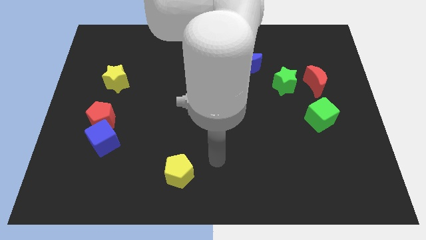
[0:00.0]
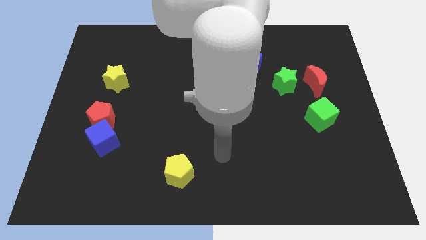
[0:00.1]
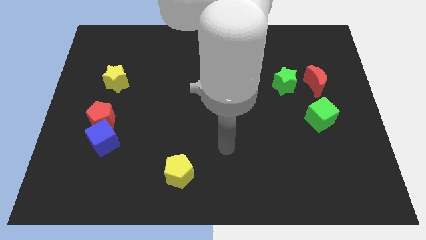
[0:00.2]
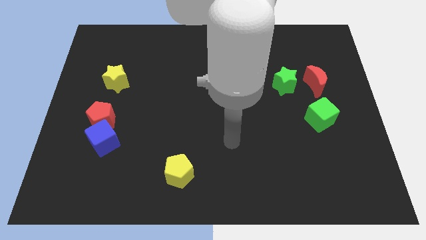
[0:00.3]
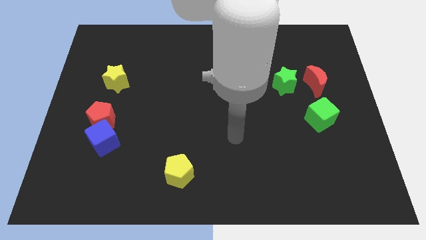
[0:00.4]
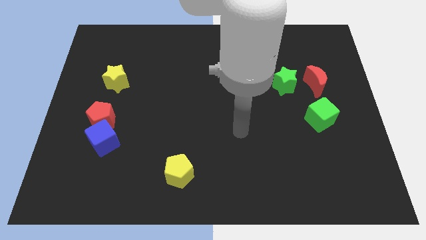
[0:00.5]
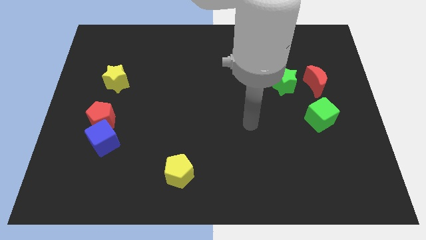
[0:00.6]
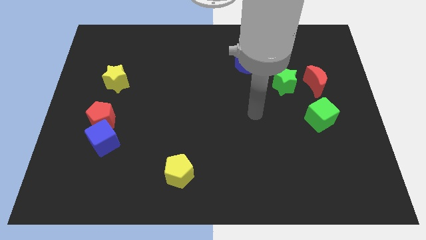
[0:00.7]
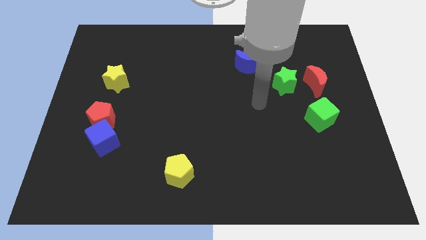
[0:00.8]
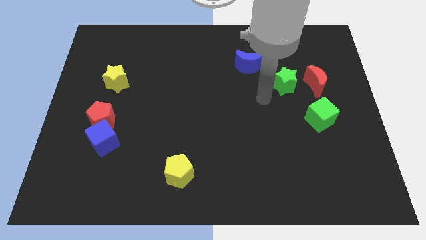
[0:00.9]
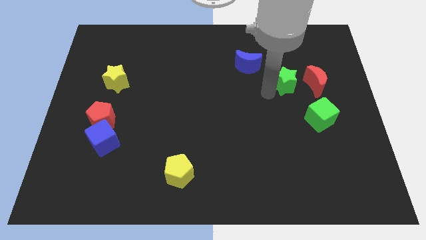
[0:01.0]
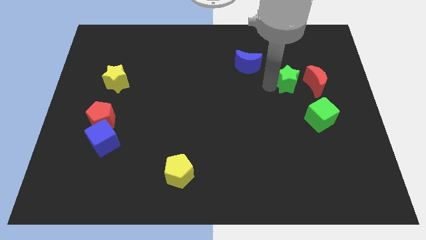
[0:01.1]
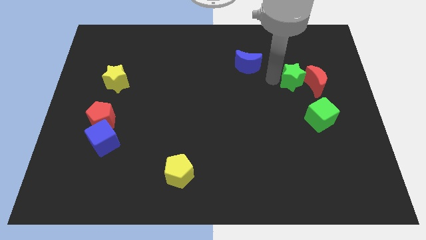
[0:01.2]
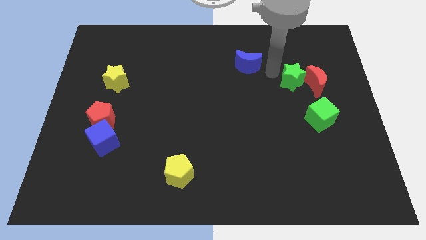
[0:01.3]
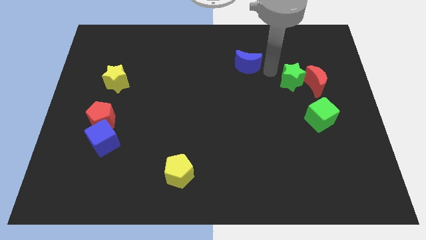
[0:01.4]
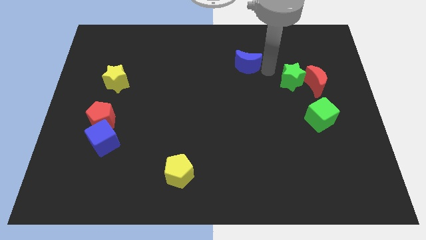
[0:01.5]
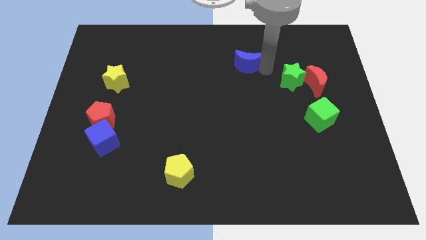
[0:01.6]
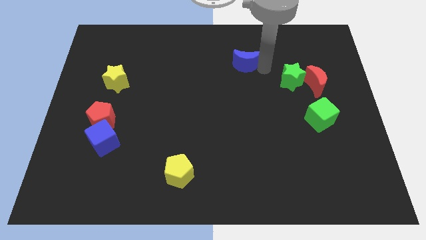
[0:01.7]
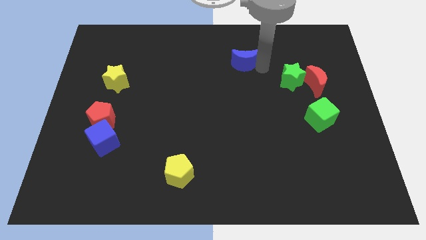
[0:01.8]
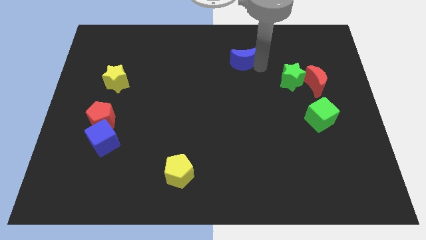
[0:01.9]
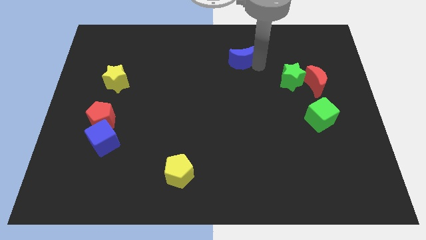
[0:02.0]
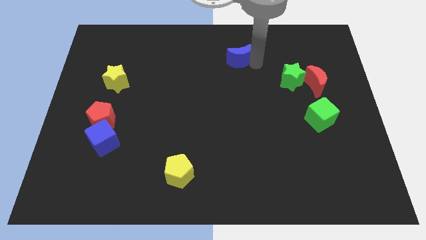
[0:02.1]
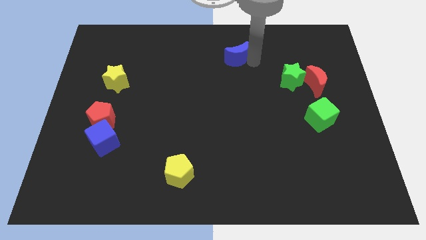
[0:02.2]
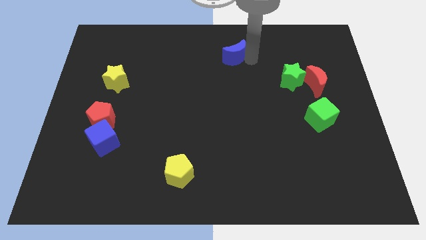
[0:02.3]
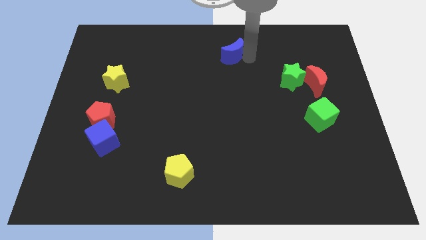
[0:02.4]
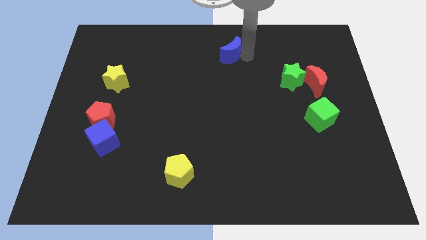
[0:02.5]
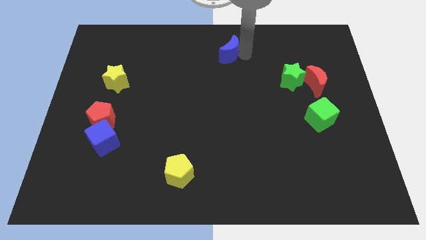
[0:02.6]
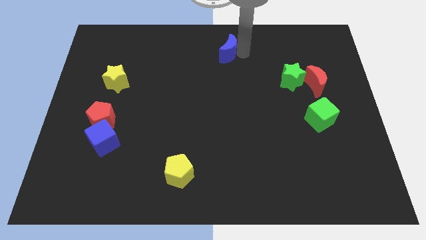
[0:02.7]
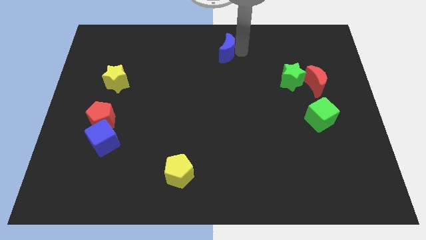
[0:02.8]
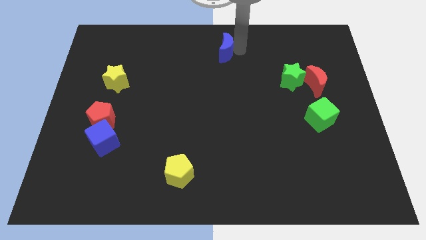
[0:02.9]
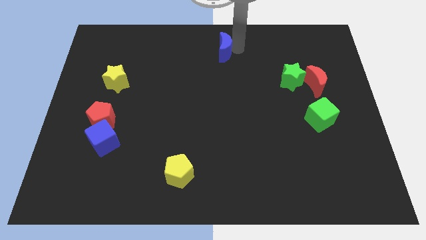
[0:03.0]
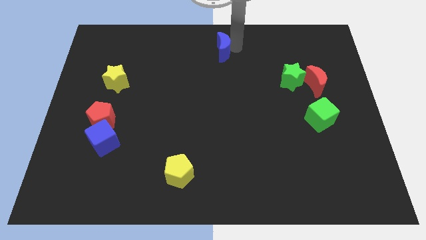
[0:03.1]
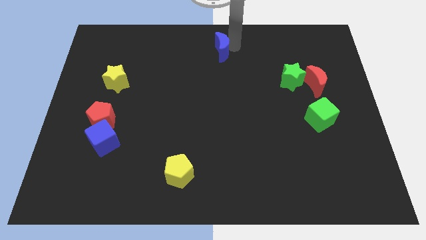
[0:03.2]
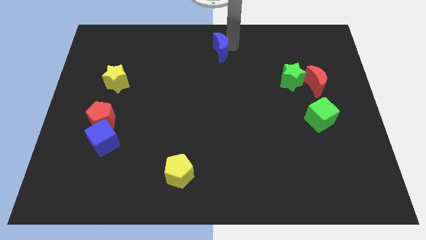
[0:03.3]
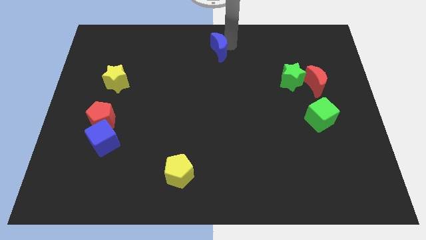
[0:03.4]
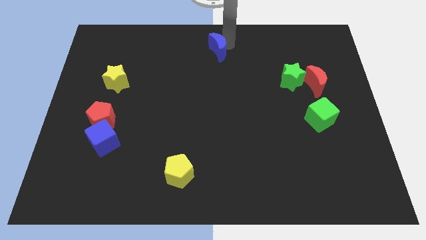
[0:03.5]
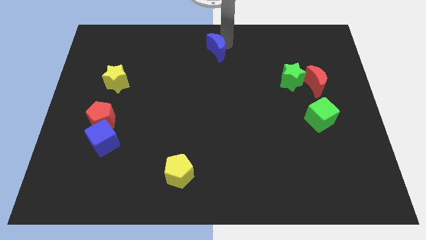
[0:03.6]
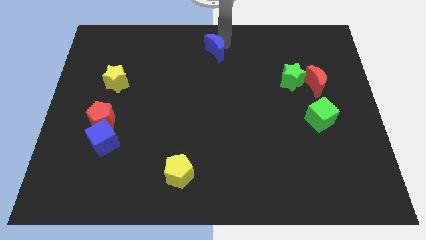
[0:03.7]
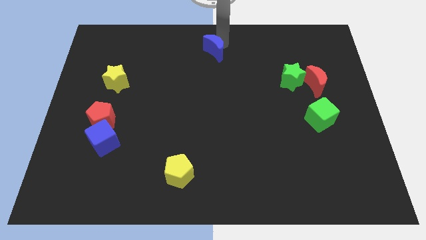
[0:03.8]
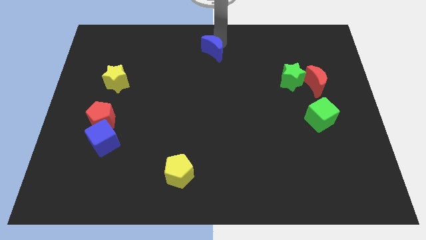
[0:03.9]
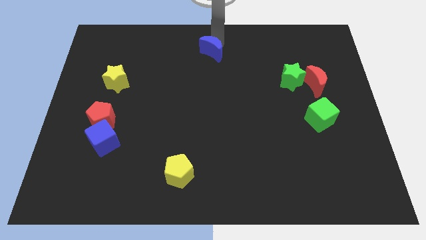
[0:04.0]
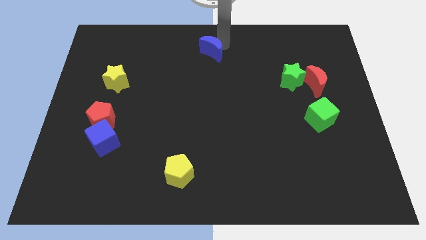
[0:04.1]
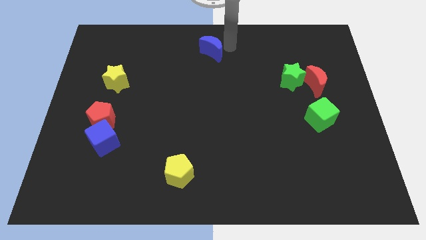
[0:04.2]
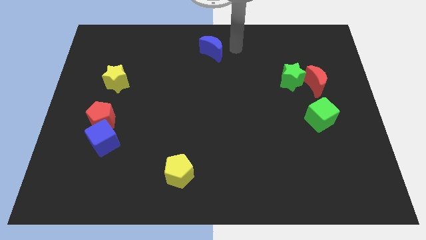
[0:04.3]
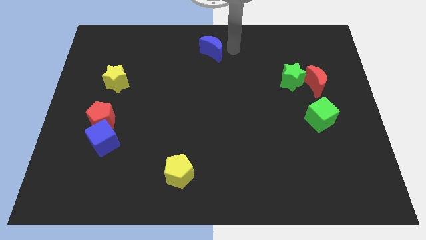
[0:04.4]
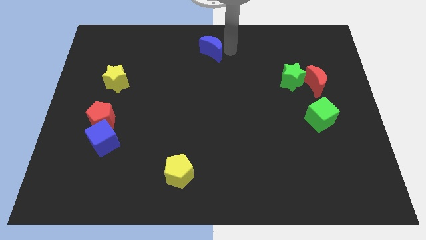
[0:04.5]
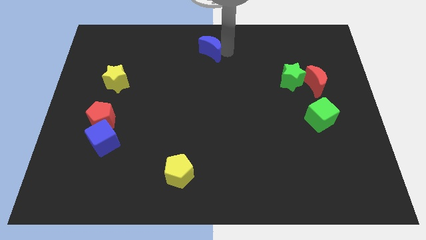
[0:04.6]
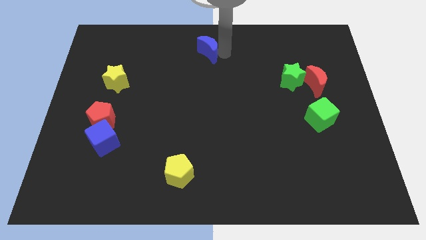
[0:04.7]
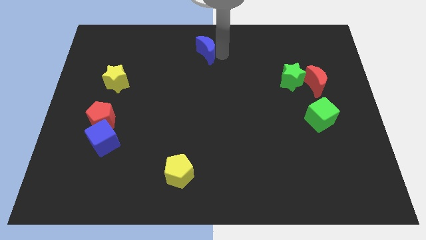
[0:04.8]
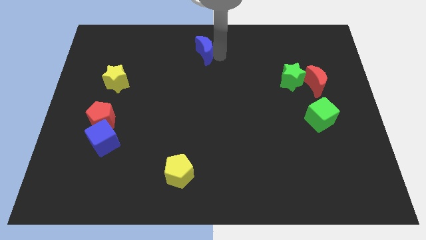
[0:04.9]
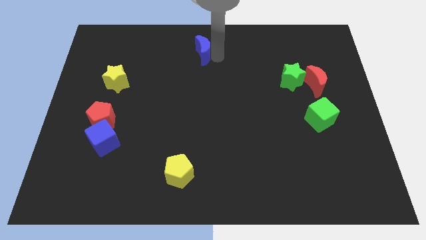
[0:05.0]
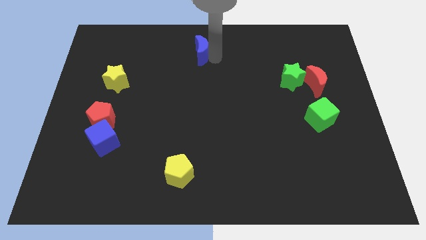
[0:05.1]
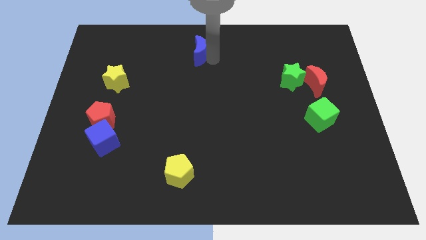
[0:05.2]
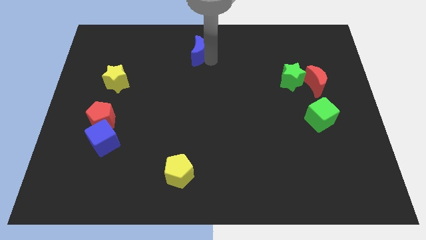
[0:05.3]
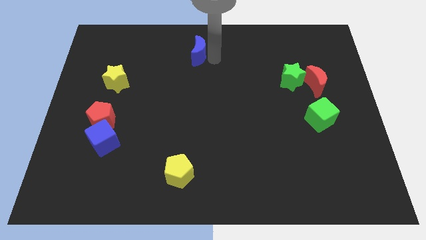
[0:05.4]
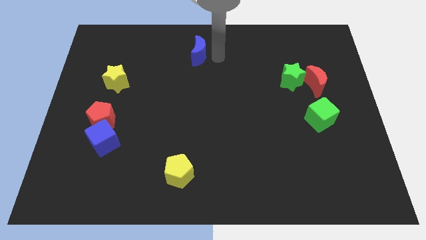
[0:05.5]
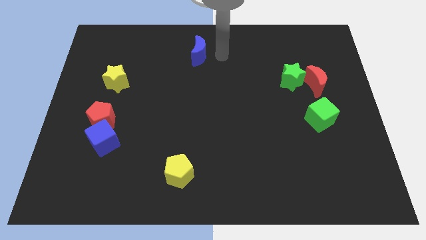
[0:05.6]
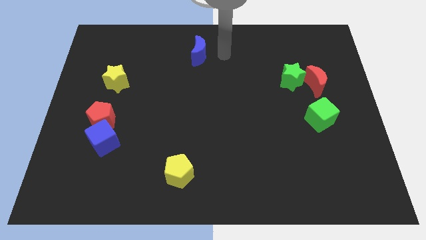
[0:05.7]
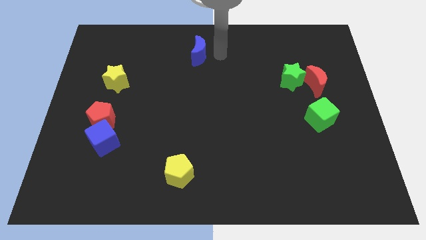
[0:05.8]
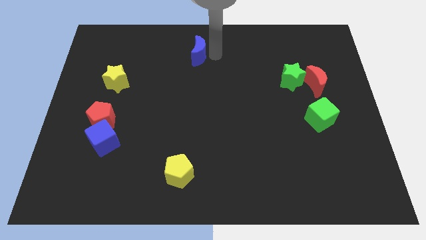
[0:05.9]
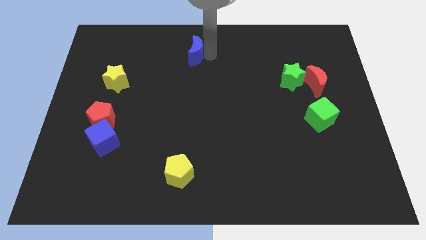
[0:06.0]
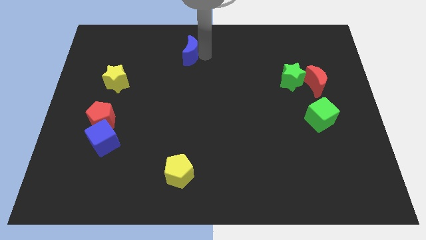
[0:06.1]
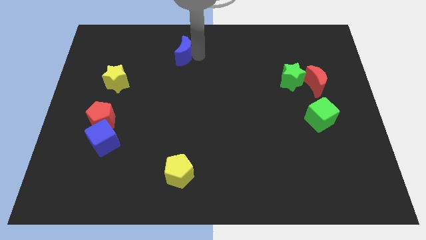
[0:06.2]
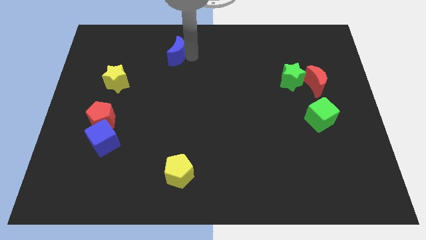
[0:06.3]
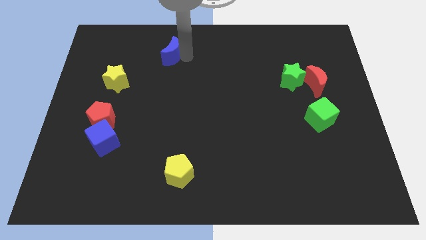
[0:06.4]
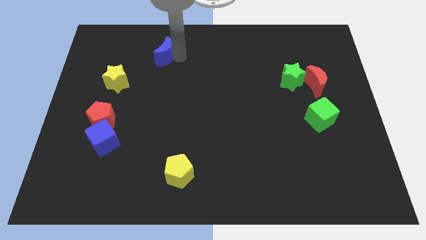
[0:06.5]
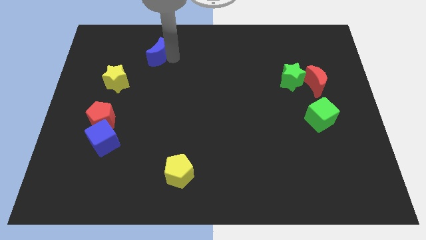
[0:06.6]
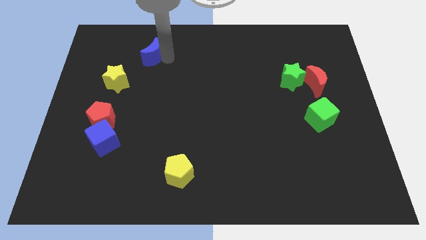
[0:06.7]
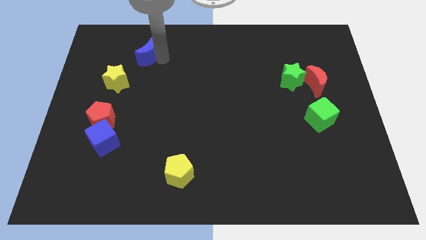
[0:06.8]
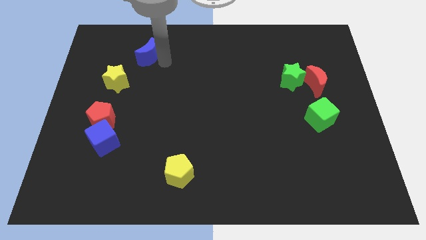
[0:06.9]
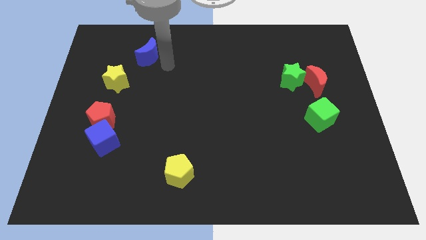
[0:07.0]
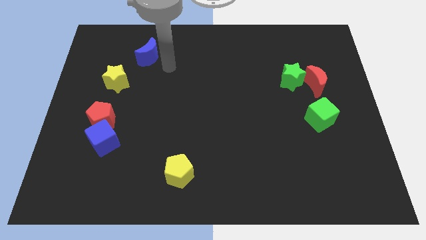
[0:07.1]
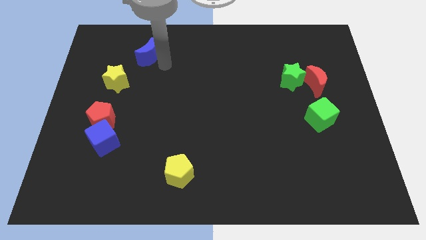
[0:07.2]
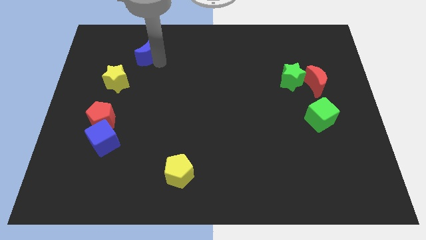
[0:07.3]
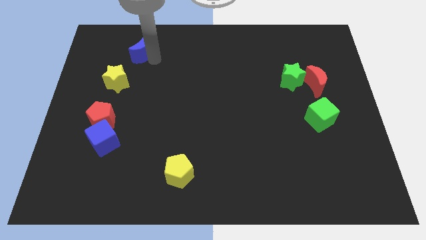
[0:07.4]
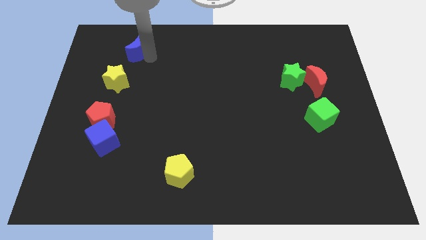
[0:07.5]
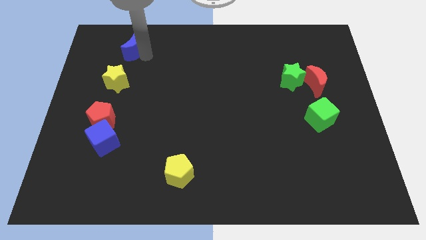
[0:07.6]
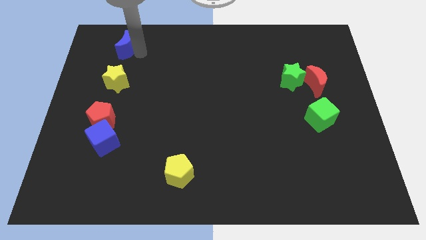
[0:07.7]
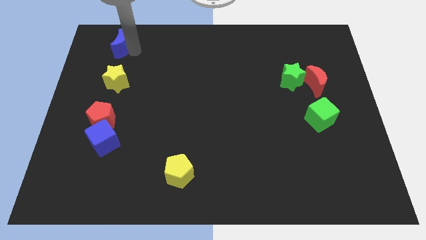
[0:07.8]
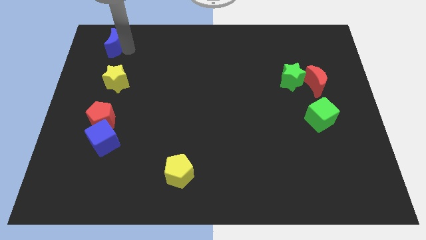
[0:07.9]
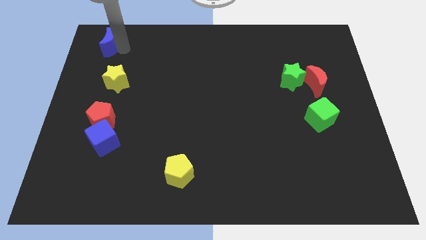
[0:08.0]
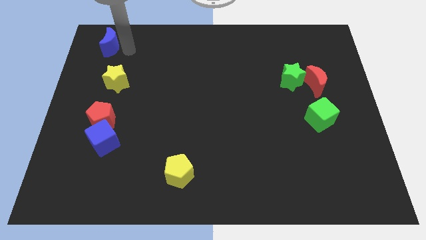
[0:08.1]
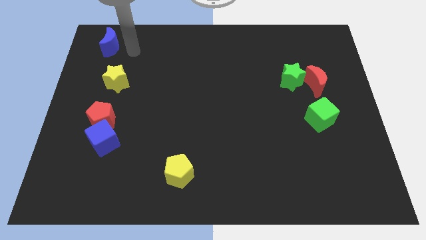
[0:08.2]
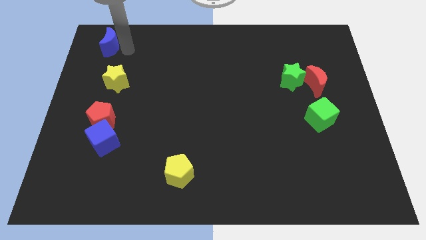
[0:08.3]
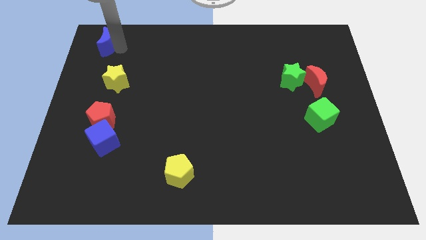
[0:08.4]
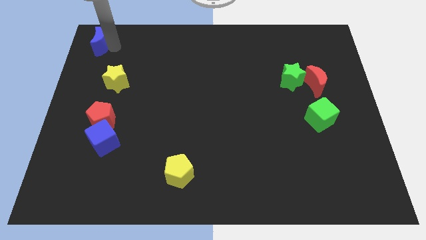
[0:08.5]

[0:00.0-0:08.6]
move the blue moon to the top left of the board
